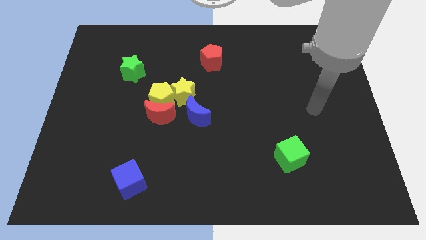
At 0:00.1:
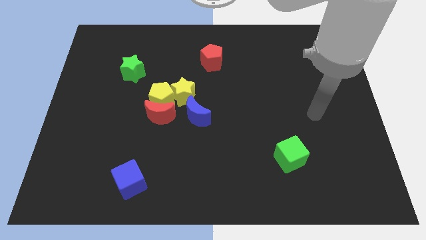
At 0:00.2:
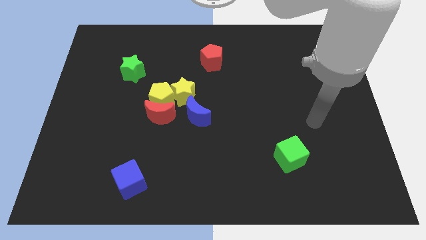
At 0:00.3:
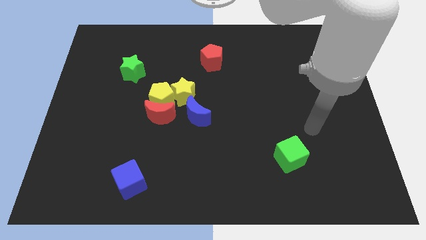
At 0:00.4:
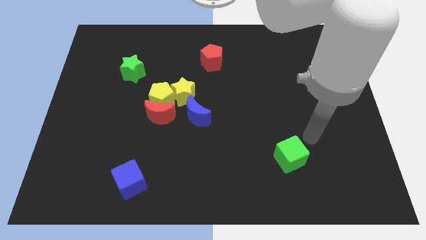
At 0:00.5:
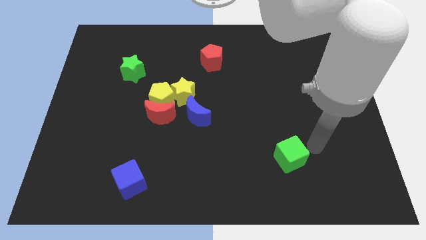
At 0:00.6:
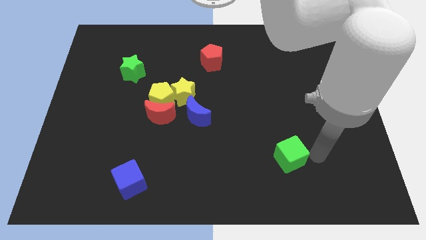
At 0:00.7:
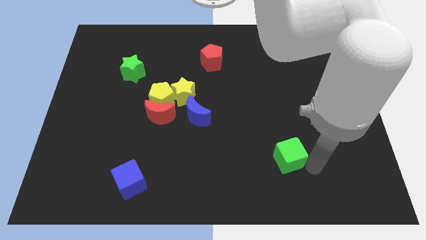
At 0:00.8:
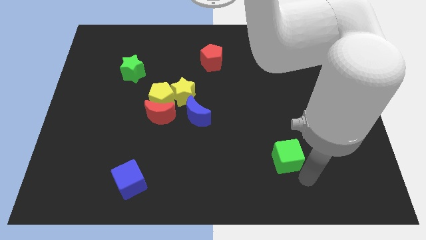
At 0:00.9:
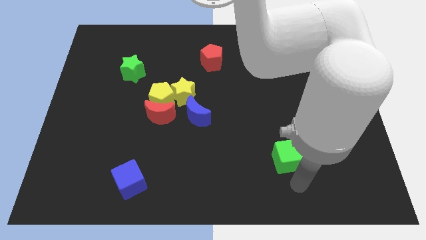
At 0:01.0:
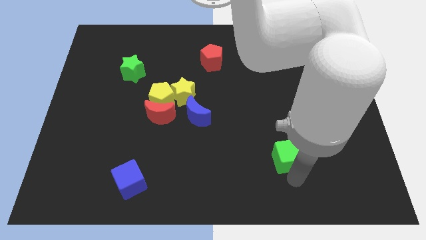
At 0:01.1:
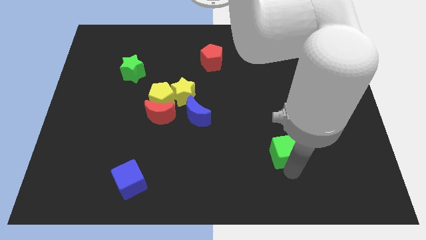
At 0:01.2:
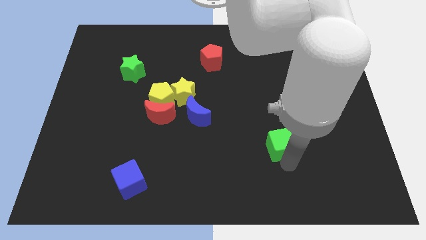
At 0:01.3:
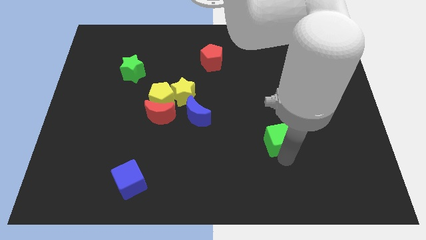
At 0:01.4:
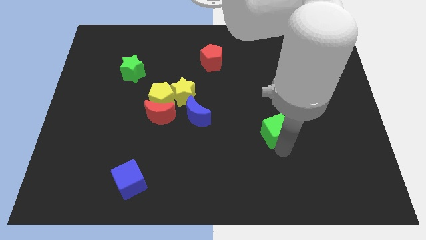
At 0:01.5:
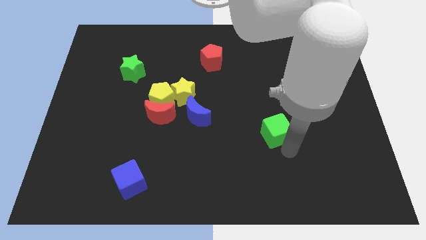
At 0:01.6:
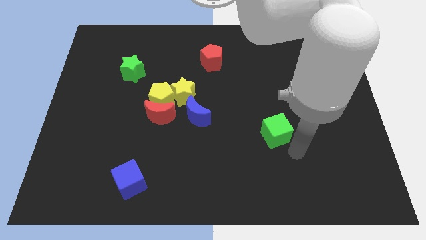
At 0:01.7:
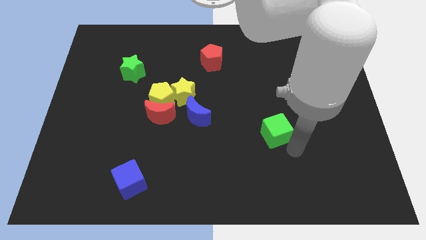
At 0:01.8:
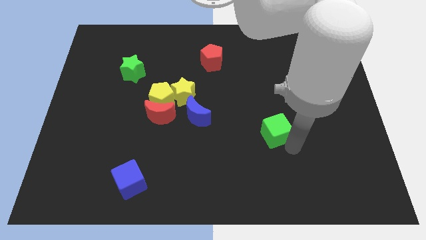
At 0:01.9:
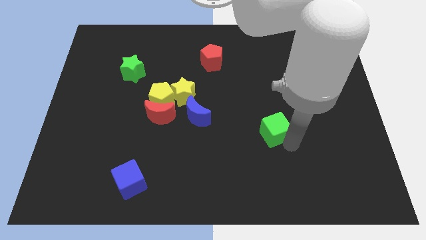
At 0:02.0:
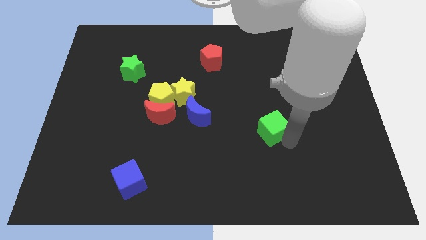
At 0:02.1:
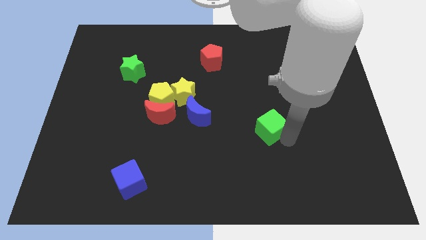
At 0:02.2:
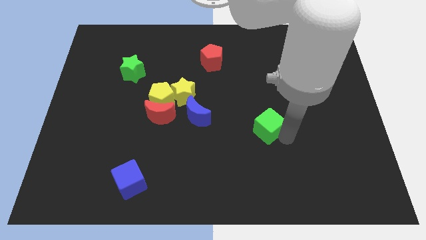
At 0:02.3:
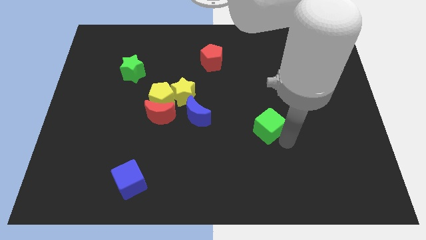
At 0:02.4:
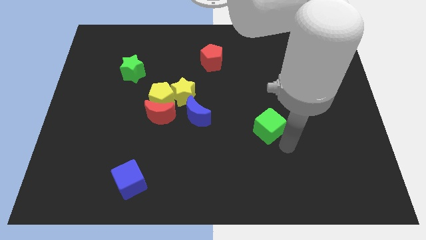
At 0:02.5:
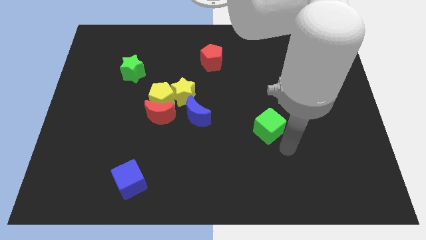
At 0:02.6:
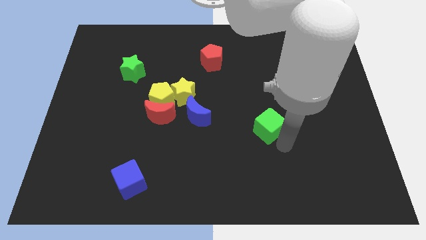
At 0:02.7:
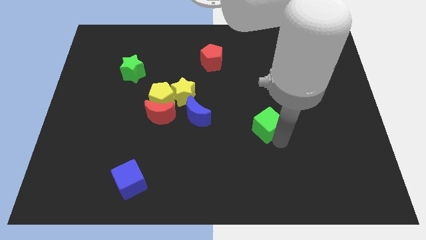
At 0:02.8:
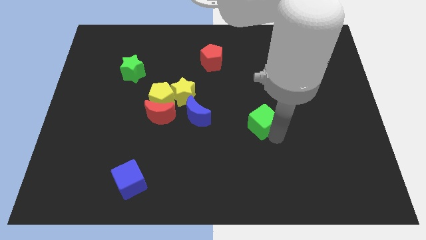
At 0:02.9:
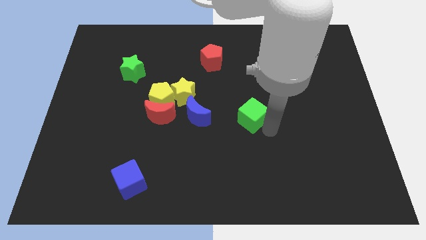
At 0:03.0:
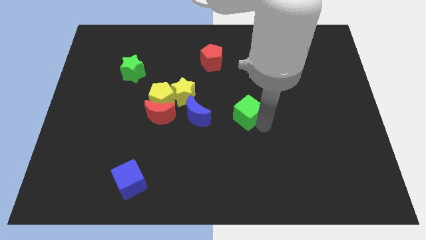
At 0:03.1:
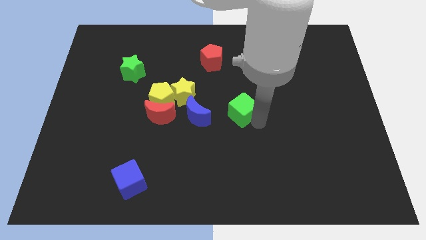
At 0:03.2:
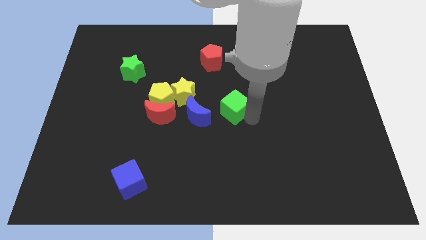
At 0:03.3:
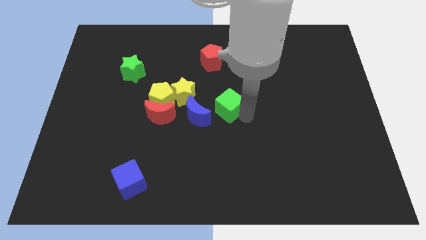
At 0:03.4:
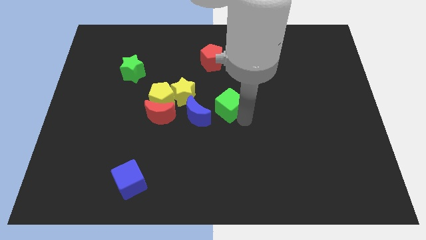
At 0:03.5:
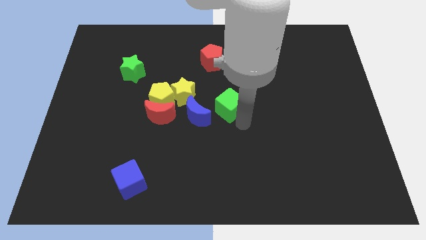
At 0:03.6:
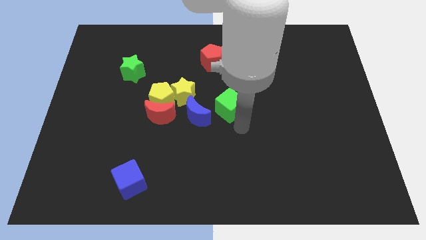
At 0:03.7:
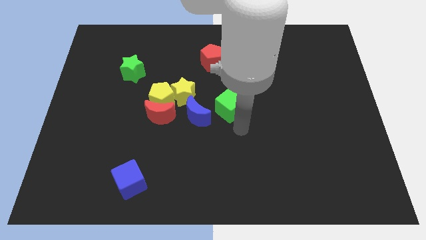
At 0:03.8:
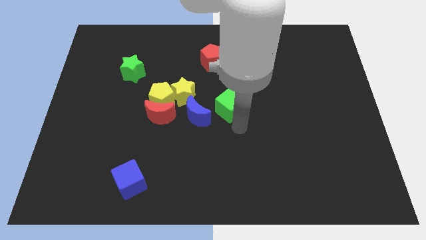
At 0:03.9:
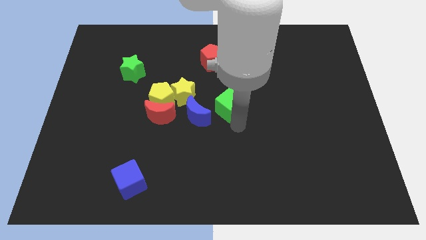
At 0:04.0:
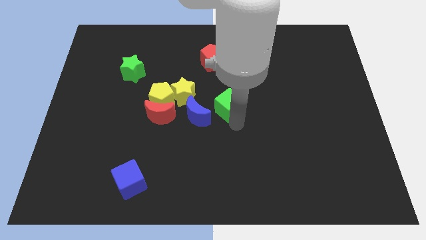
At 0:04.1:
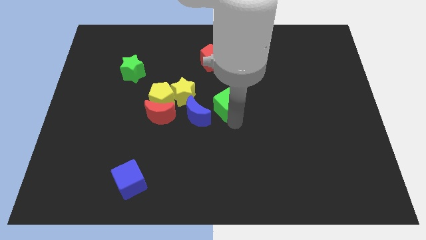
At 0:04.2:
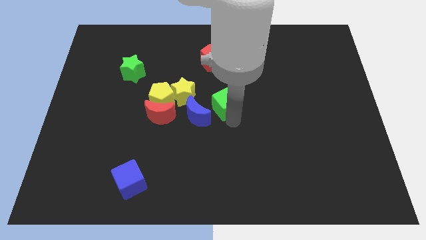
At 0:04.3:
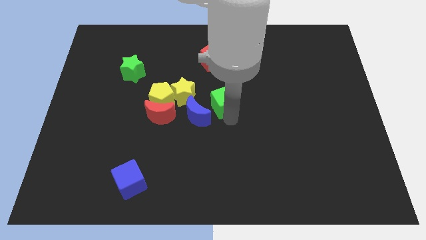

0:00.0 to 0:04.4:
push the green cube upwards and left

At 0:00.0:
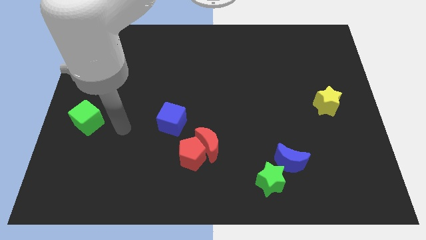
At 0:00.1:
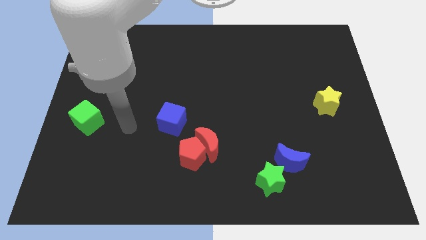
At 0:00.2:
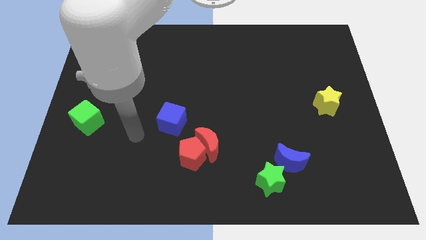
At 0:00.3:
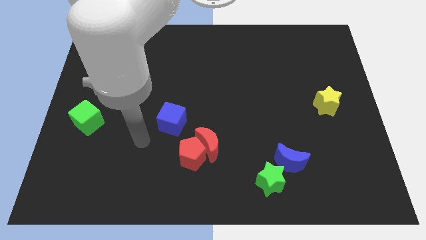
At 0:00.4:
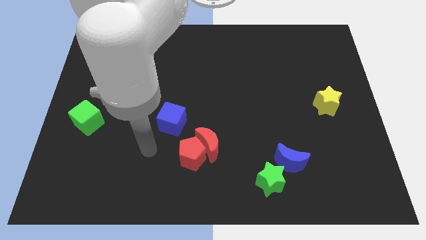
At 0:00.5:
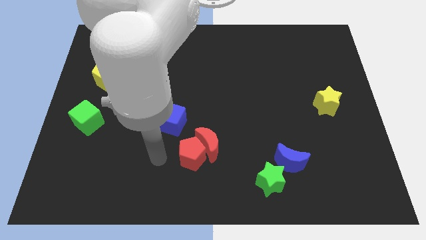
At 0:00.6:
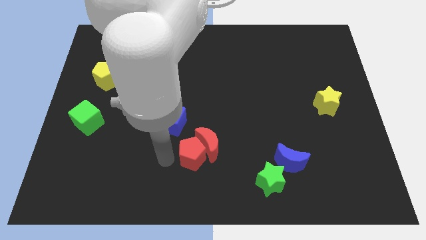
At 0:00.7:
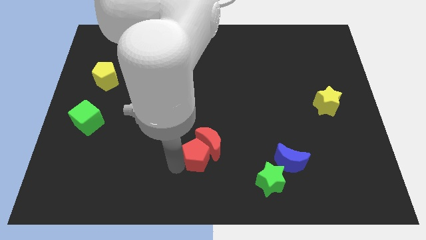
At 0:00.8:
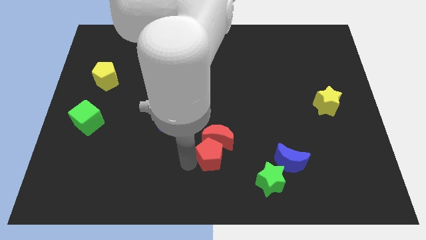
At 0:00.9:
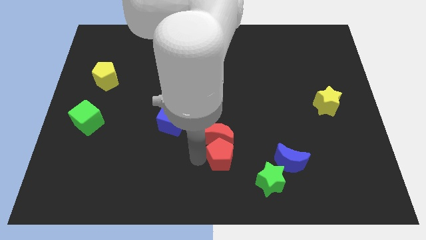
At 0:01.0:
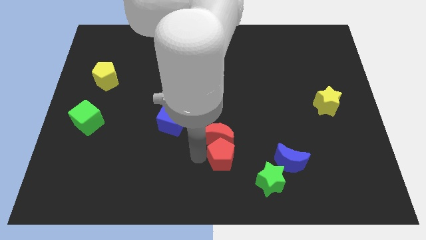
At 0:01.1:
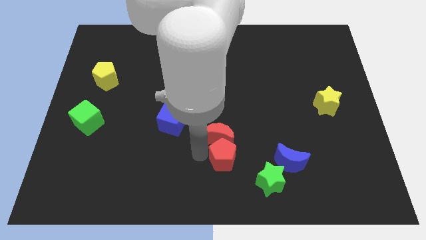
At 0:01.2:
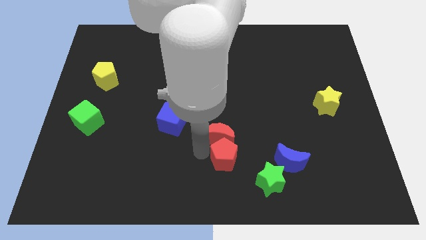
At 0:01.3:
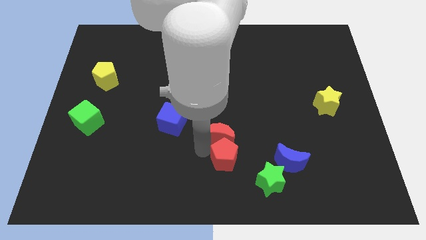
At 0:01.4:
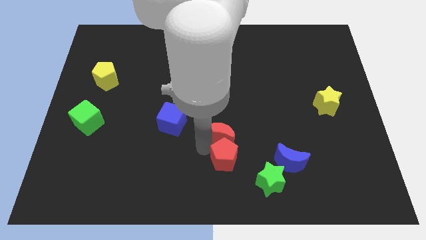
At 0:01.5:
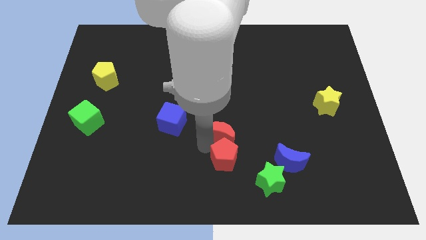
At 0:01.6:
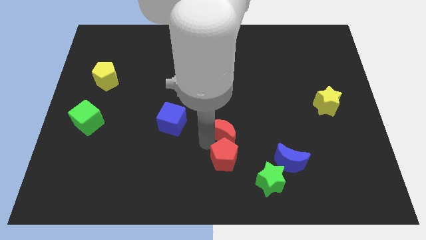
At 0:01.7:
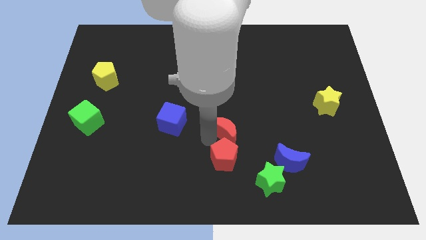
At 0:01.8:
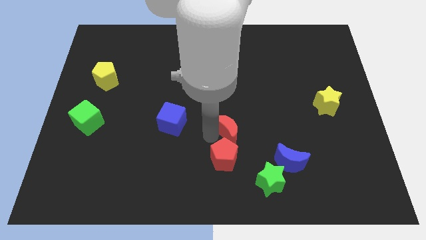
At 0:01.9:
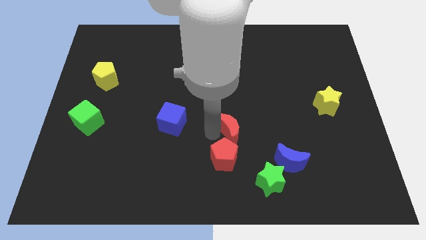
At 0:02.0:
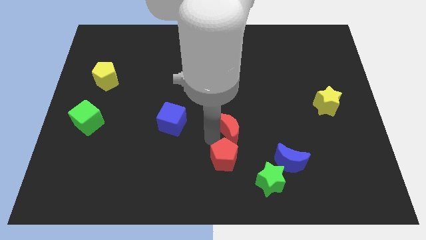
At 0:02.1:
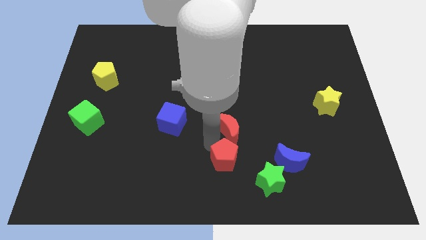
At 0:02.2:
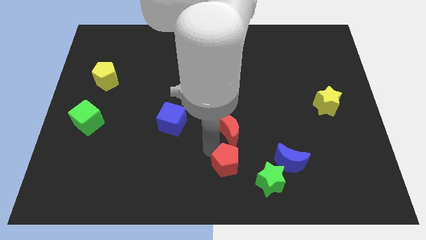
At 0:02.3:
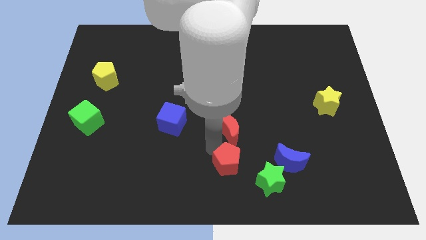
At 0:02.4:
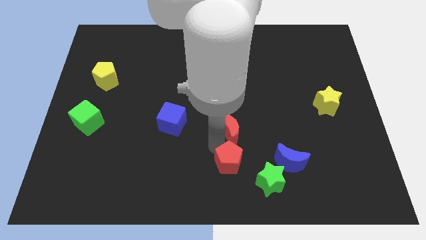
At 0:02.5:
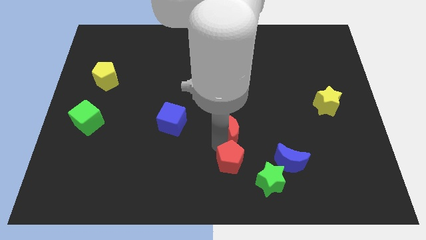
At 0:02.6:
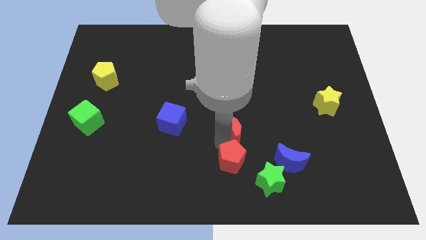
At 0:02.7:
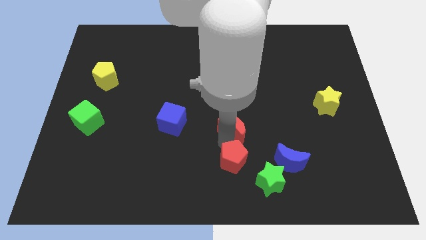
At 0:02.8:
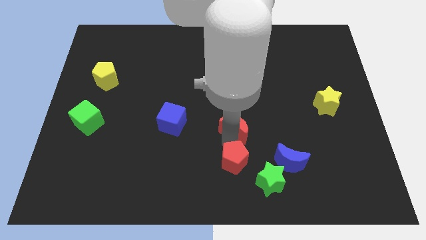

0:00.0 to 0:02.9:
slide the red moon a little diagonally up and to the right

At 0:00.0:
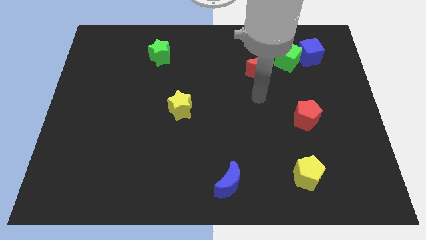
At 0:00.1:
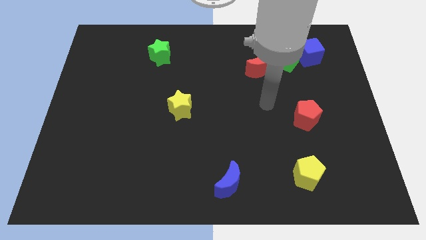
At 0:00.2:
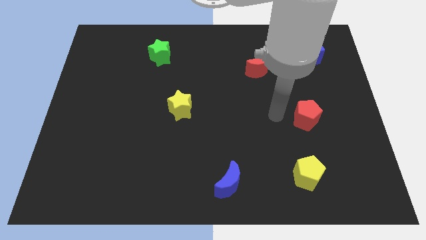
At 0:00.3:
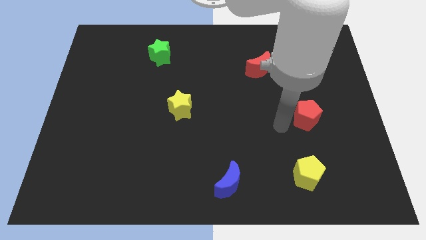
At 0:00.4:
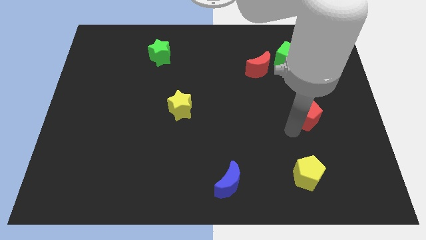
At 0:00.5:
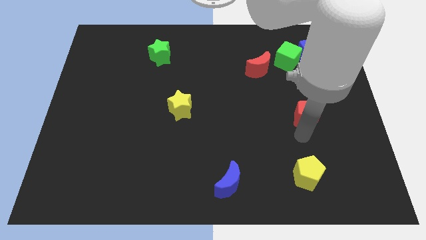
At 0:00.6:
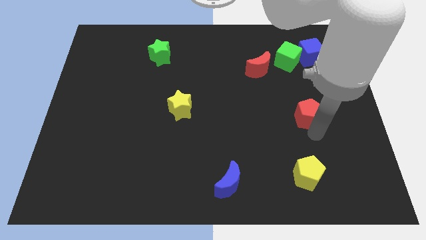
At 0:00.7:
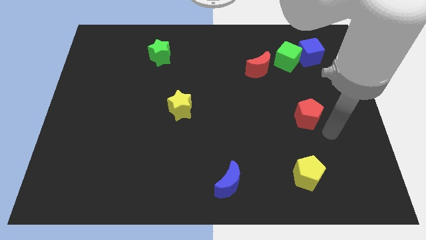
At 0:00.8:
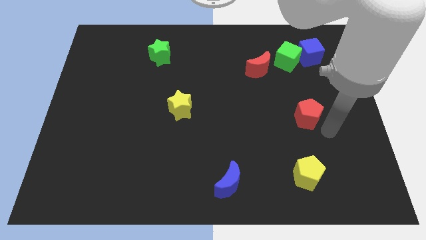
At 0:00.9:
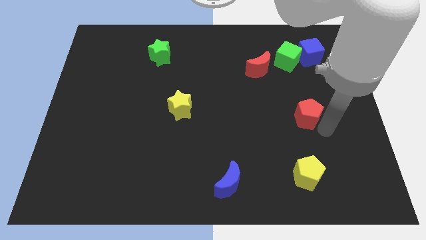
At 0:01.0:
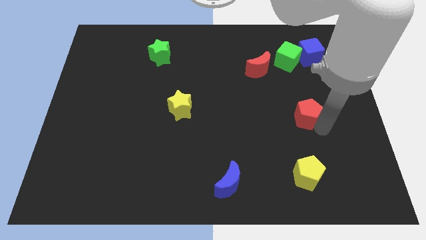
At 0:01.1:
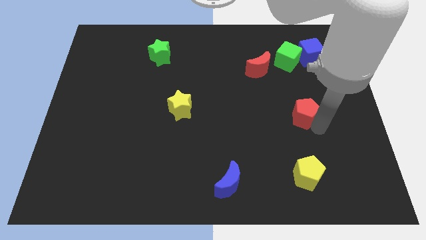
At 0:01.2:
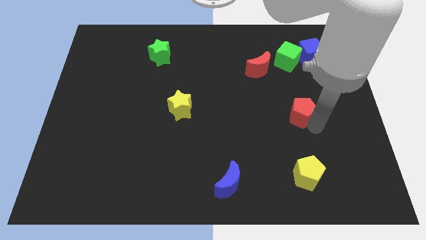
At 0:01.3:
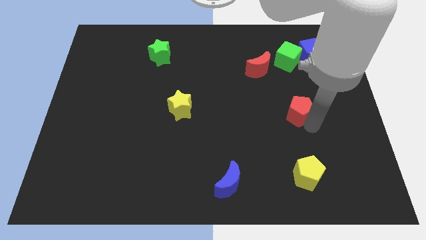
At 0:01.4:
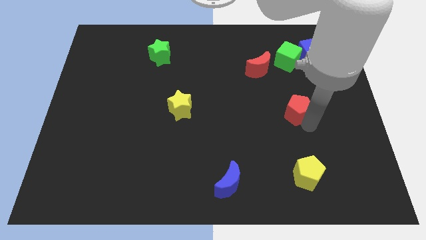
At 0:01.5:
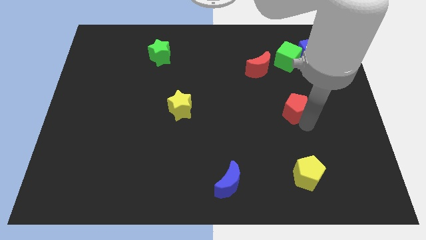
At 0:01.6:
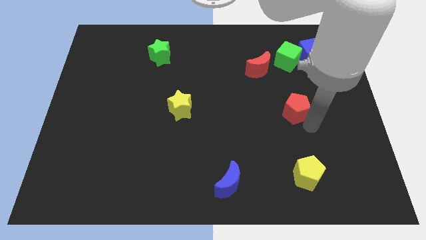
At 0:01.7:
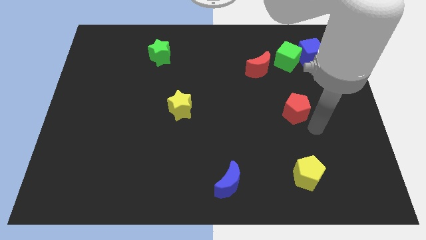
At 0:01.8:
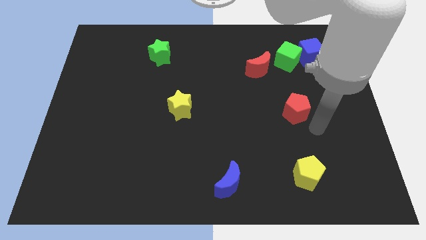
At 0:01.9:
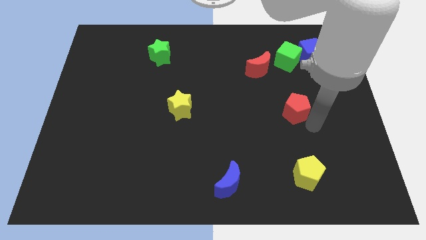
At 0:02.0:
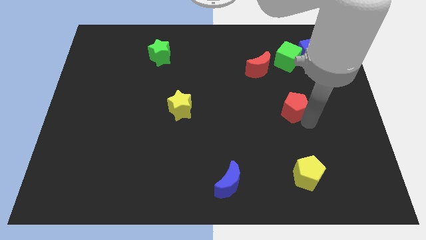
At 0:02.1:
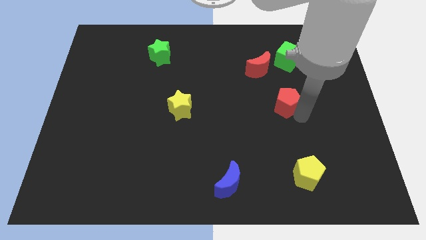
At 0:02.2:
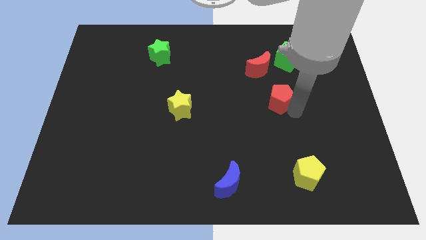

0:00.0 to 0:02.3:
slightly push the red pentagon up and to the left diagonally
